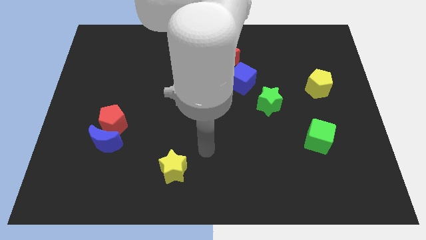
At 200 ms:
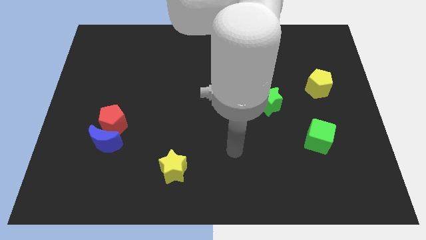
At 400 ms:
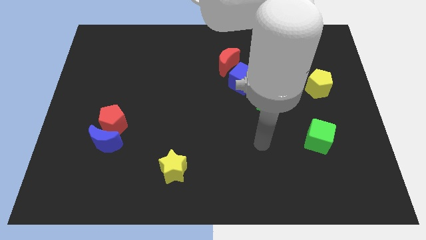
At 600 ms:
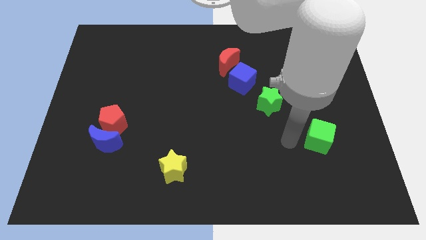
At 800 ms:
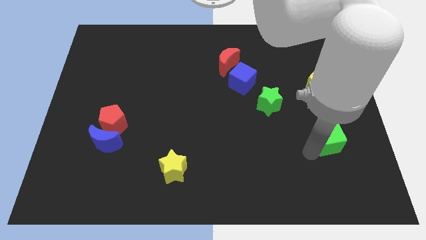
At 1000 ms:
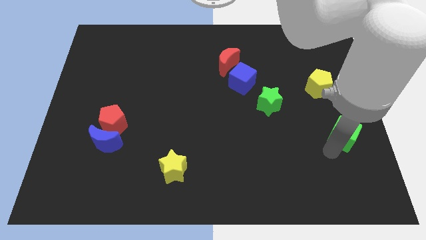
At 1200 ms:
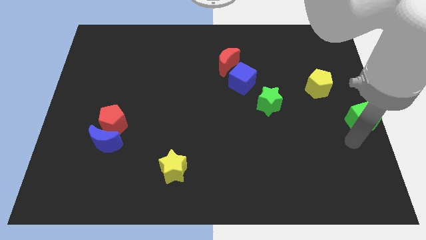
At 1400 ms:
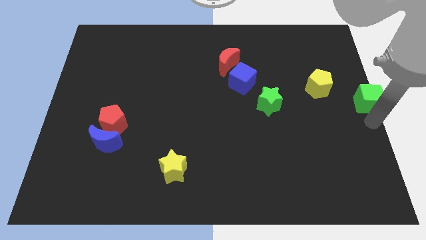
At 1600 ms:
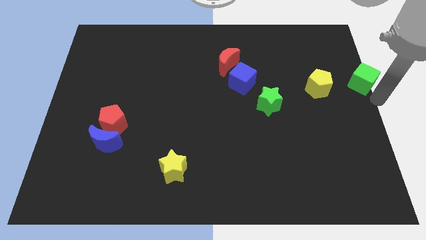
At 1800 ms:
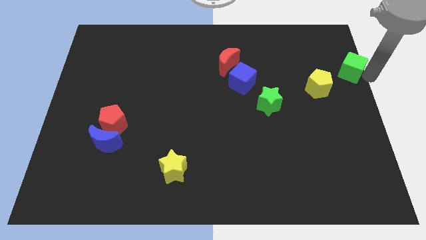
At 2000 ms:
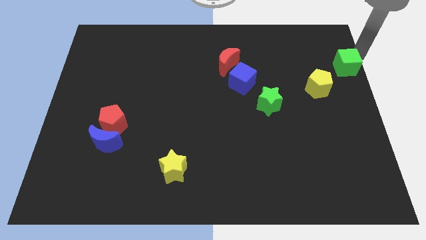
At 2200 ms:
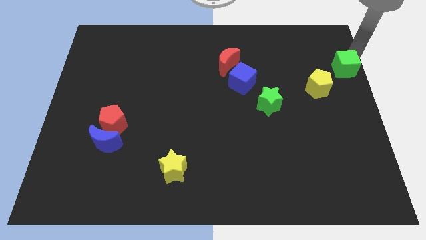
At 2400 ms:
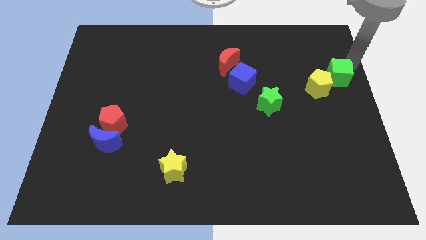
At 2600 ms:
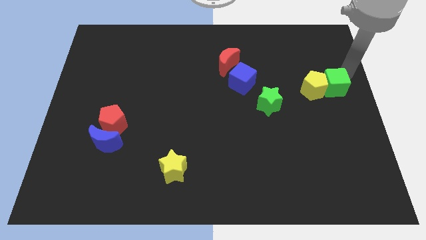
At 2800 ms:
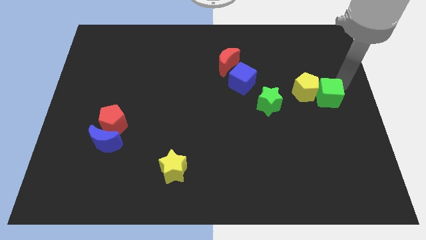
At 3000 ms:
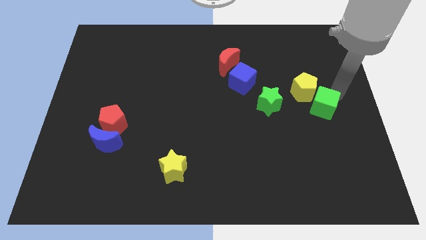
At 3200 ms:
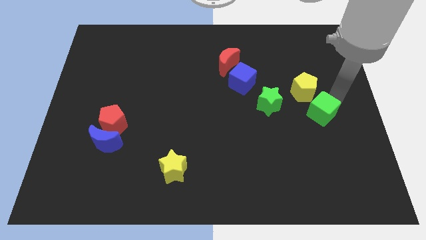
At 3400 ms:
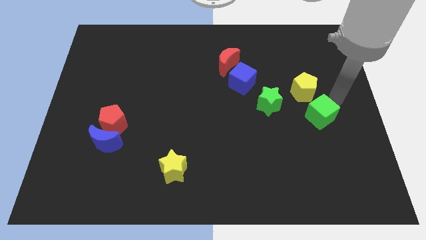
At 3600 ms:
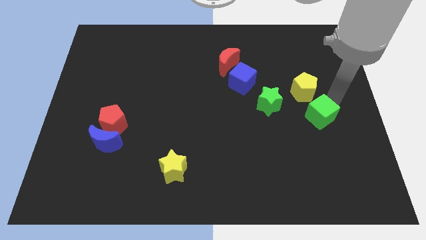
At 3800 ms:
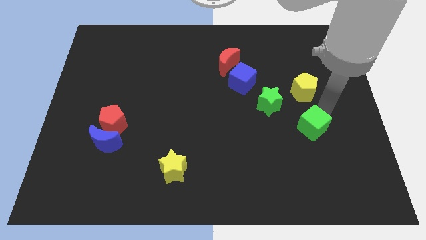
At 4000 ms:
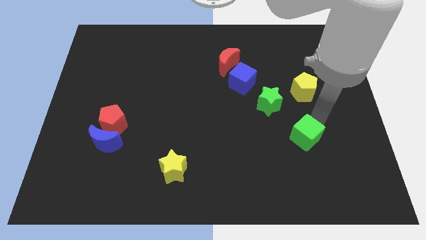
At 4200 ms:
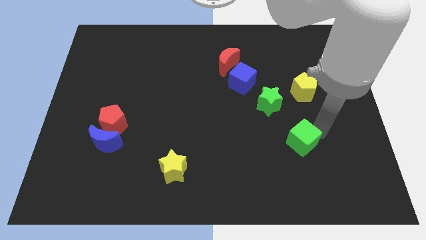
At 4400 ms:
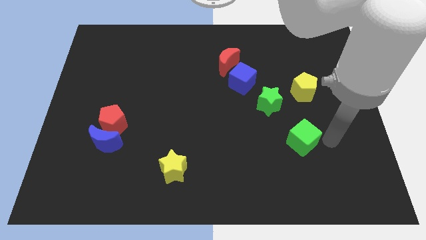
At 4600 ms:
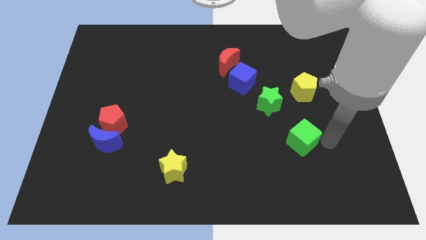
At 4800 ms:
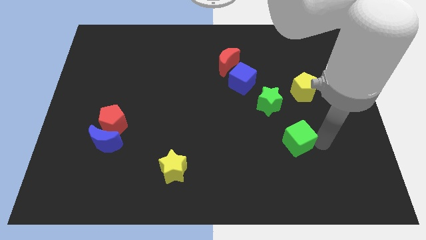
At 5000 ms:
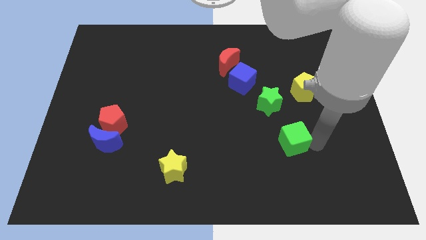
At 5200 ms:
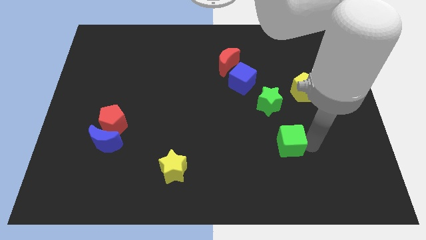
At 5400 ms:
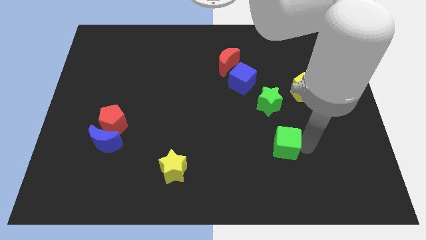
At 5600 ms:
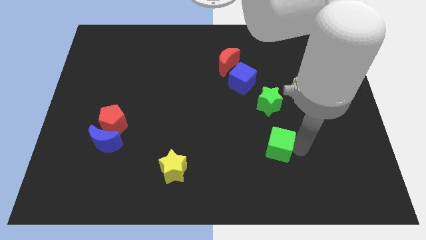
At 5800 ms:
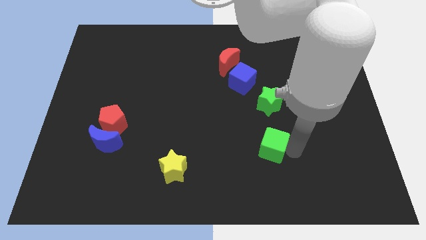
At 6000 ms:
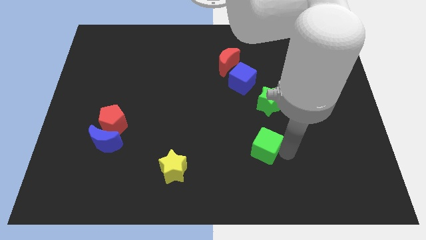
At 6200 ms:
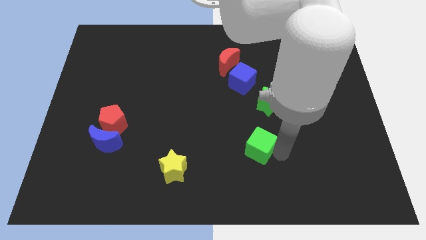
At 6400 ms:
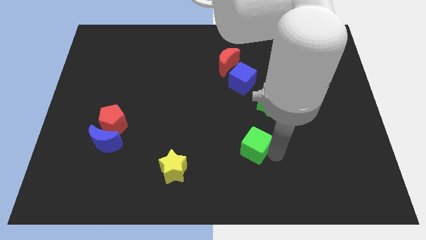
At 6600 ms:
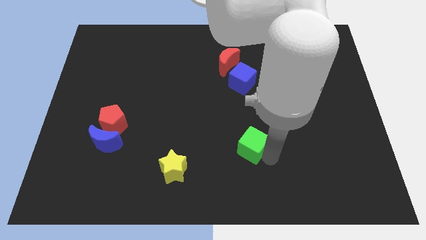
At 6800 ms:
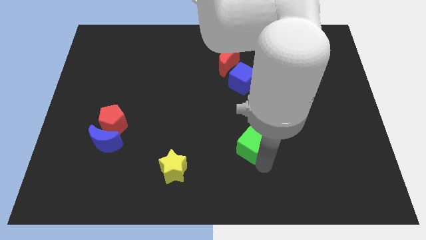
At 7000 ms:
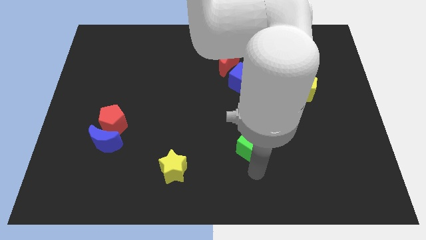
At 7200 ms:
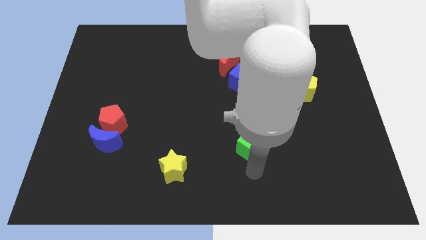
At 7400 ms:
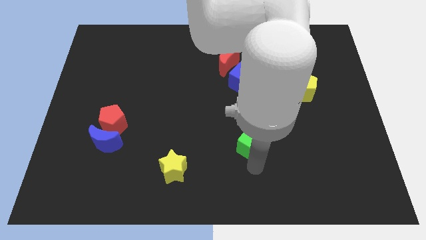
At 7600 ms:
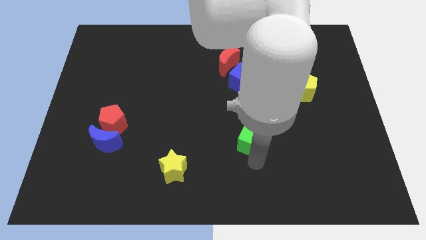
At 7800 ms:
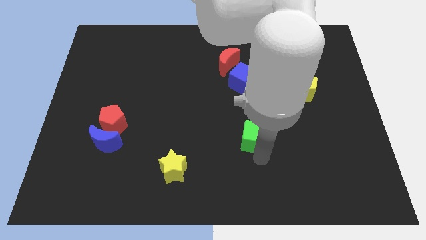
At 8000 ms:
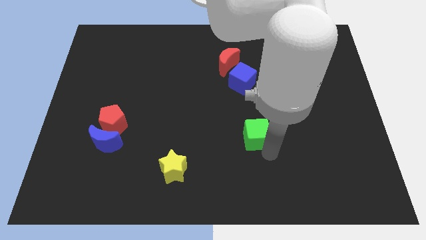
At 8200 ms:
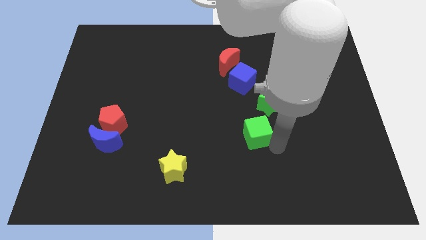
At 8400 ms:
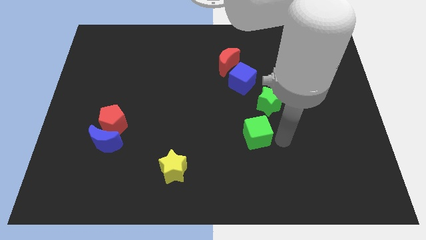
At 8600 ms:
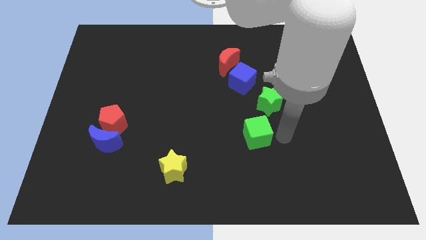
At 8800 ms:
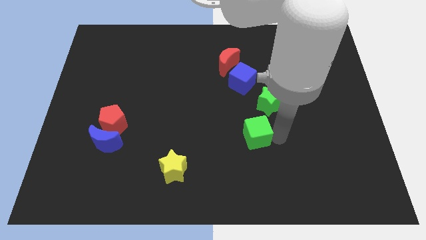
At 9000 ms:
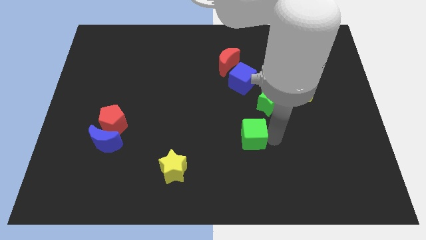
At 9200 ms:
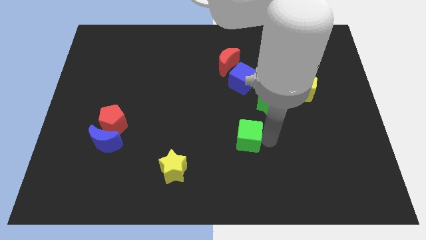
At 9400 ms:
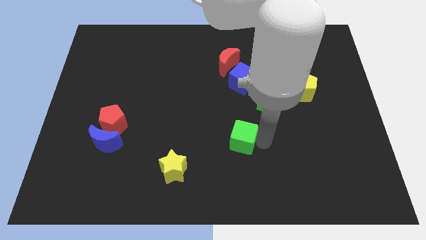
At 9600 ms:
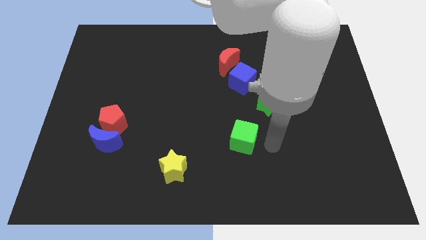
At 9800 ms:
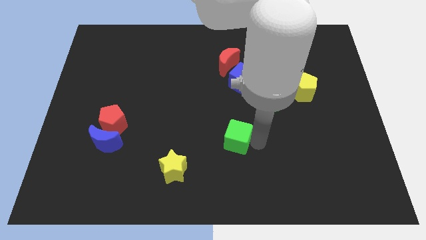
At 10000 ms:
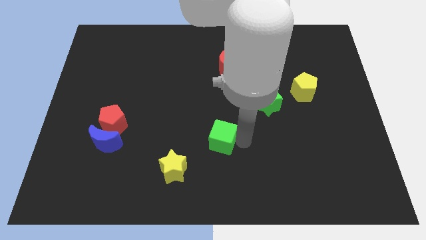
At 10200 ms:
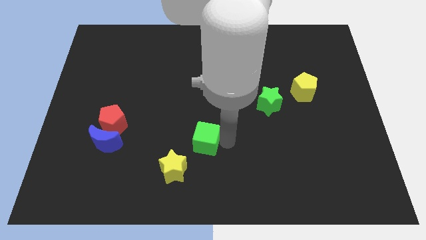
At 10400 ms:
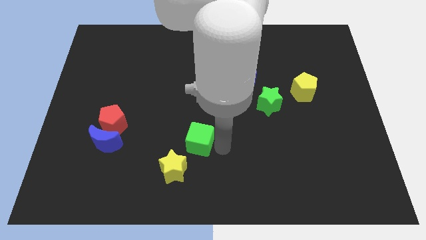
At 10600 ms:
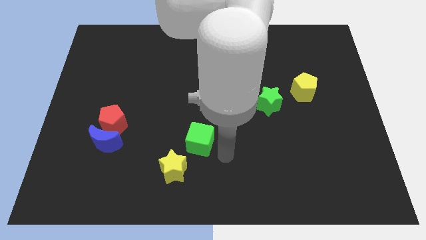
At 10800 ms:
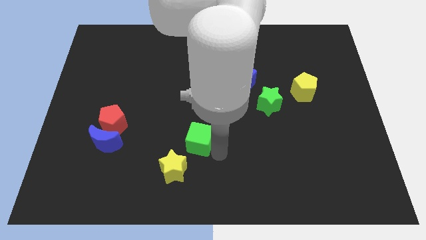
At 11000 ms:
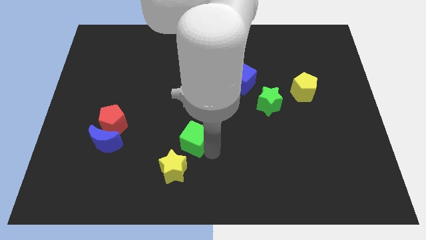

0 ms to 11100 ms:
push the green cube to the top of the yellow star

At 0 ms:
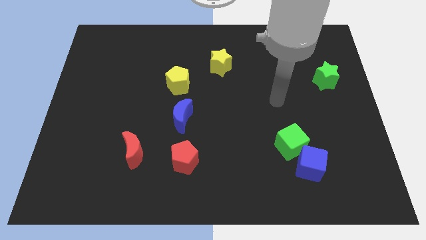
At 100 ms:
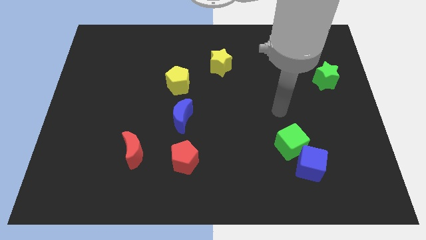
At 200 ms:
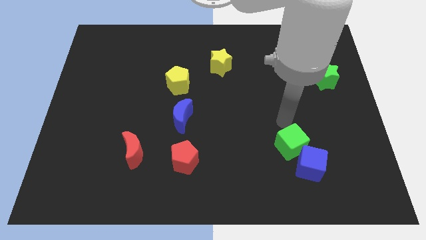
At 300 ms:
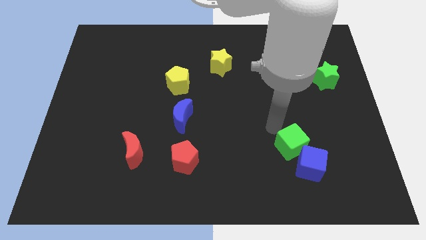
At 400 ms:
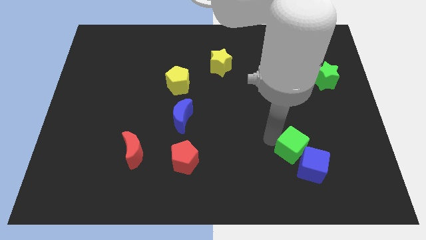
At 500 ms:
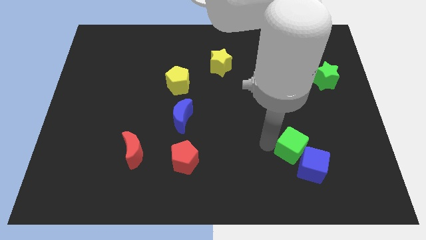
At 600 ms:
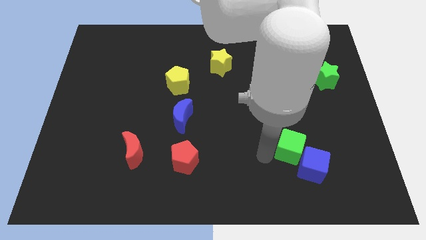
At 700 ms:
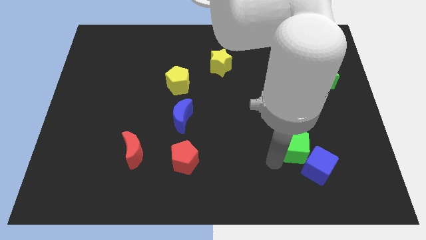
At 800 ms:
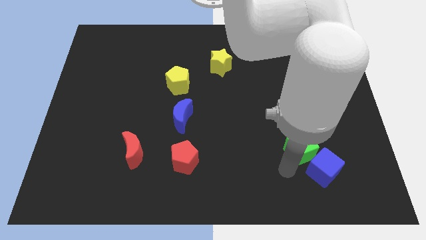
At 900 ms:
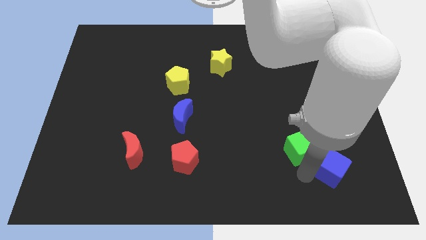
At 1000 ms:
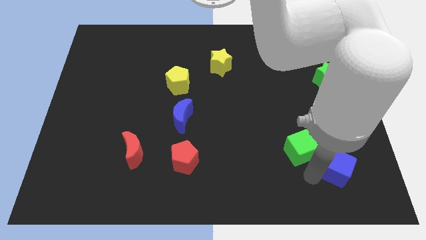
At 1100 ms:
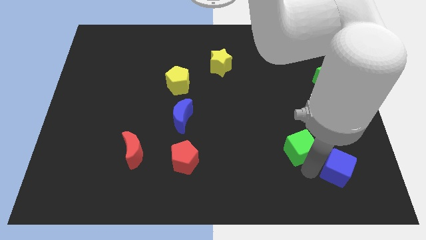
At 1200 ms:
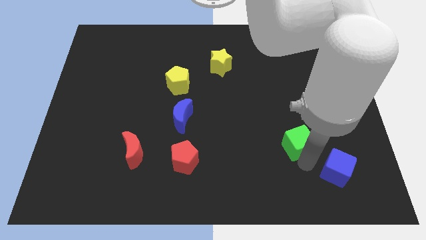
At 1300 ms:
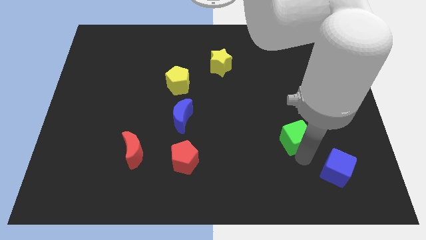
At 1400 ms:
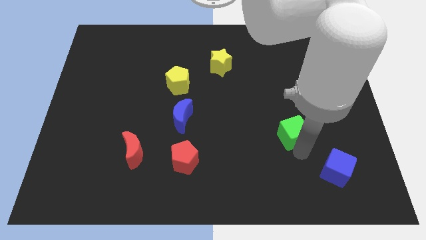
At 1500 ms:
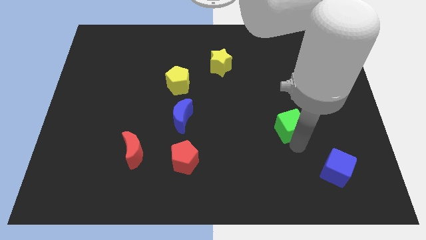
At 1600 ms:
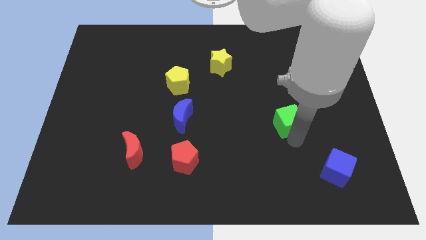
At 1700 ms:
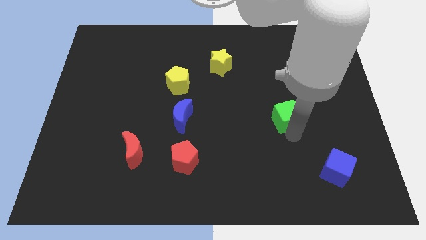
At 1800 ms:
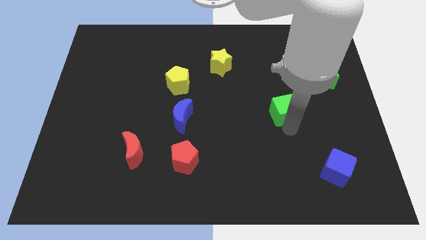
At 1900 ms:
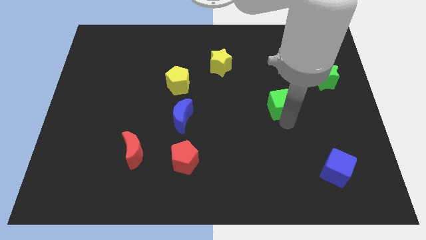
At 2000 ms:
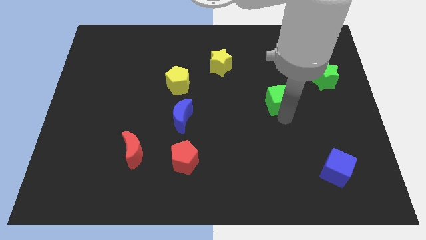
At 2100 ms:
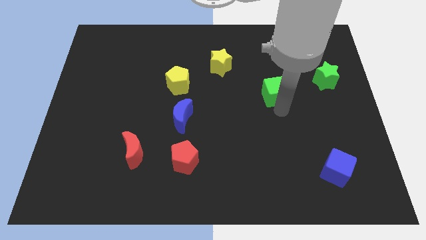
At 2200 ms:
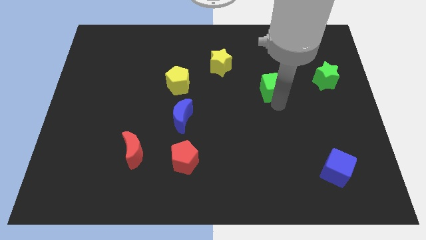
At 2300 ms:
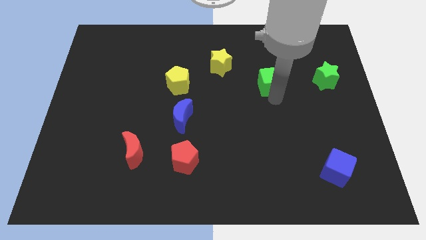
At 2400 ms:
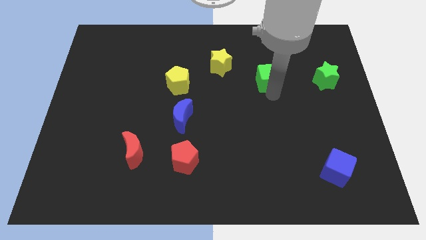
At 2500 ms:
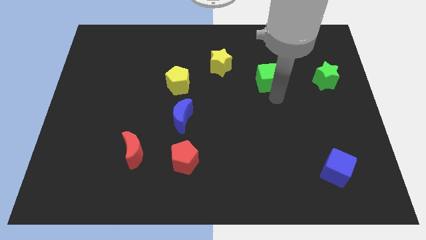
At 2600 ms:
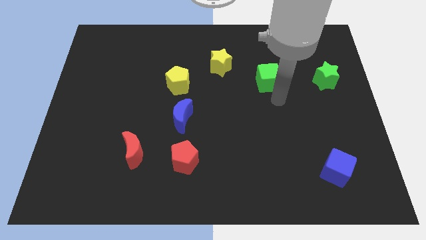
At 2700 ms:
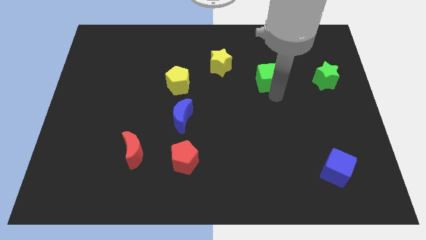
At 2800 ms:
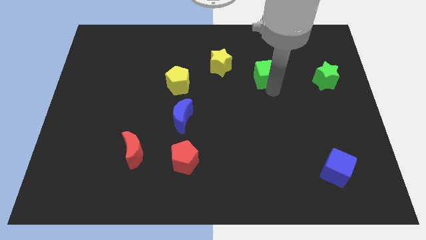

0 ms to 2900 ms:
move the green cube to the right side of the yellow star

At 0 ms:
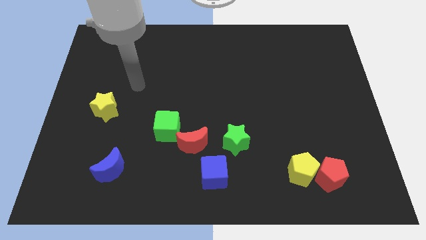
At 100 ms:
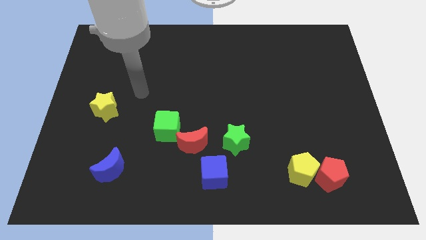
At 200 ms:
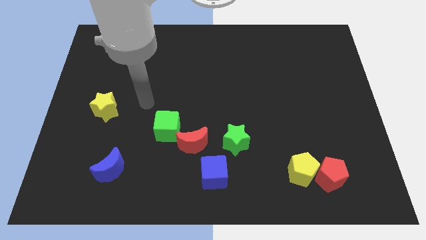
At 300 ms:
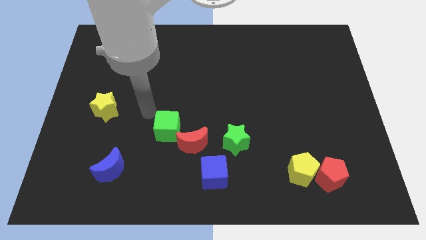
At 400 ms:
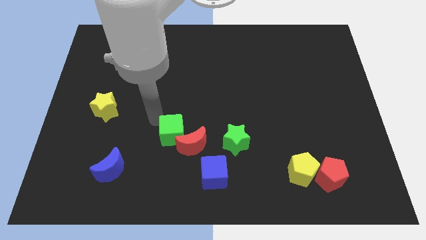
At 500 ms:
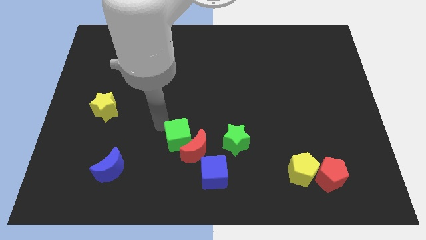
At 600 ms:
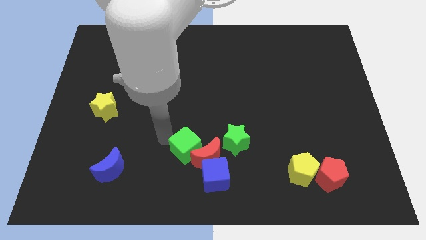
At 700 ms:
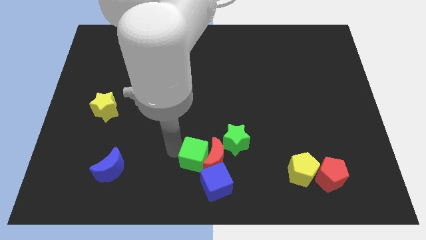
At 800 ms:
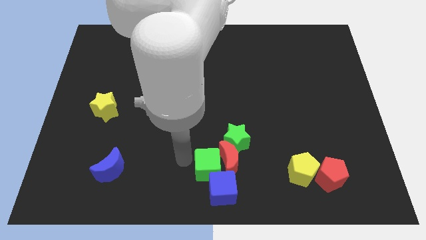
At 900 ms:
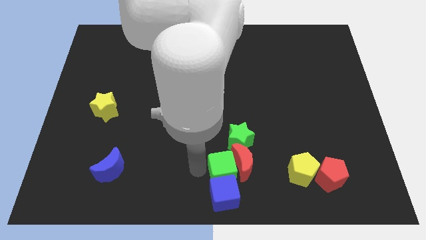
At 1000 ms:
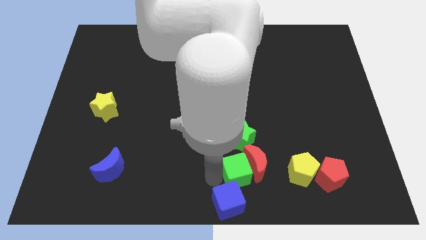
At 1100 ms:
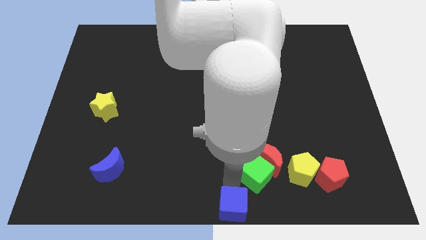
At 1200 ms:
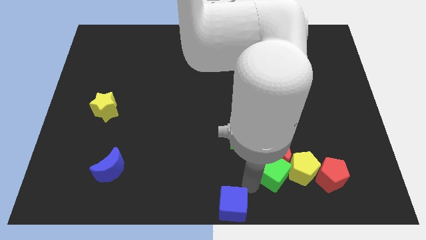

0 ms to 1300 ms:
push the red moon to the right side of the green star
